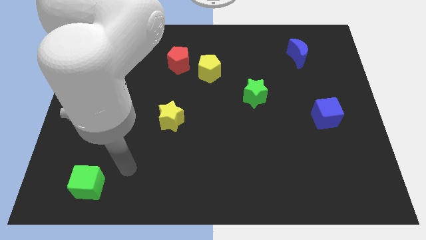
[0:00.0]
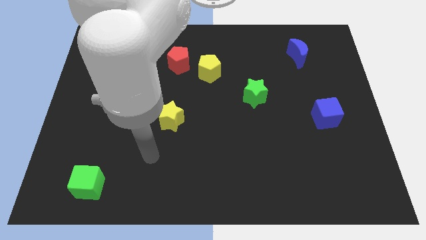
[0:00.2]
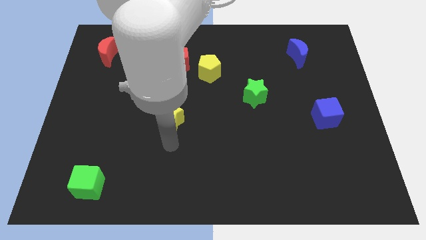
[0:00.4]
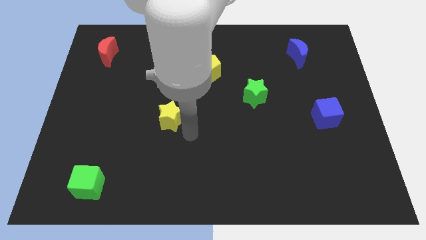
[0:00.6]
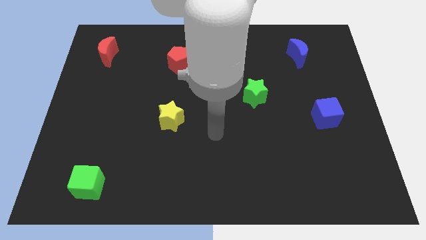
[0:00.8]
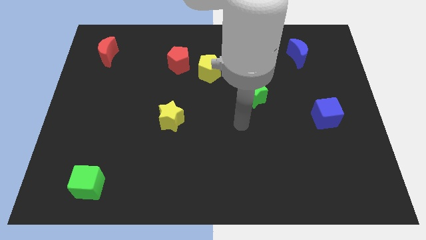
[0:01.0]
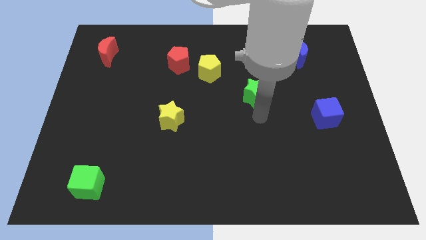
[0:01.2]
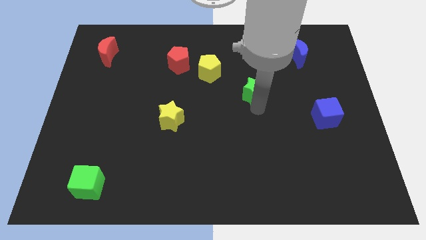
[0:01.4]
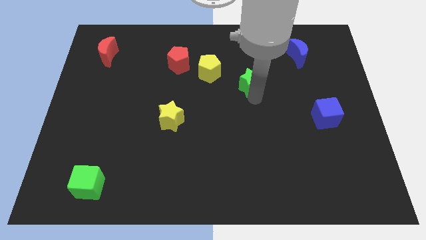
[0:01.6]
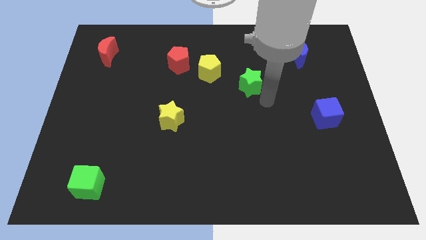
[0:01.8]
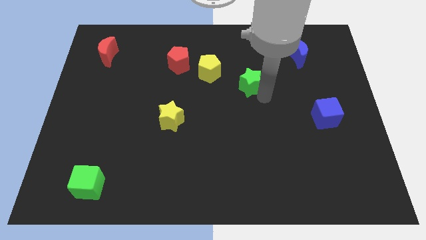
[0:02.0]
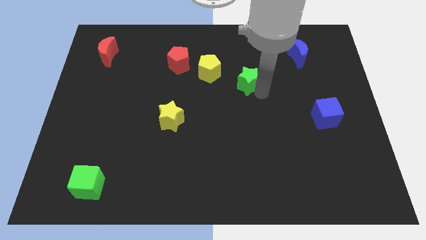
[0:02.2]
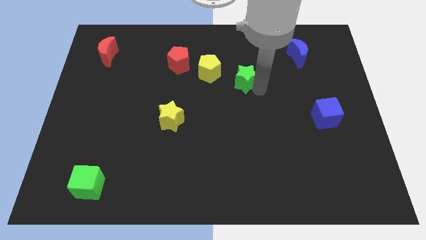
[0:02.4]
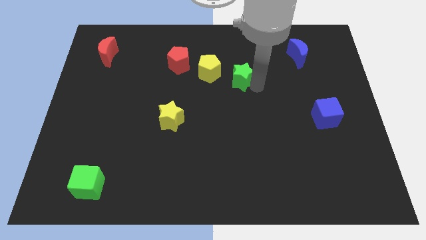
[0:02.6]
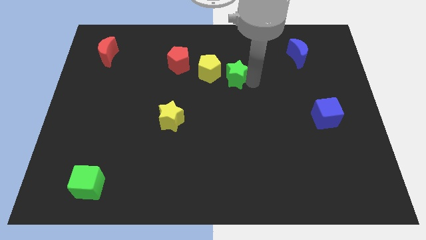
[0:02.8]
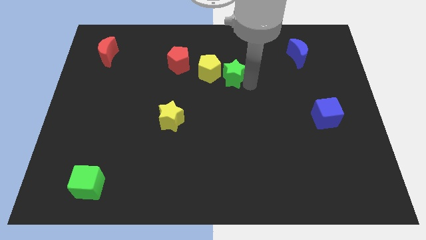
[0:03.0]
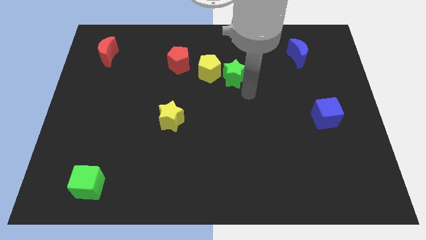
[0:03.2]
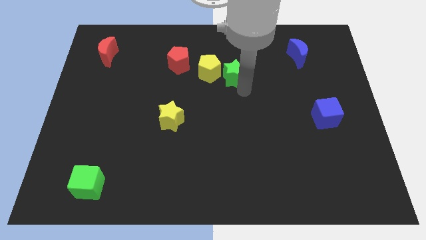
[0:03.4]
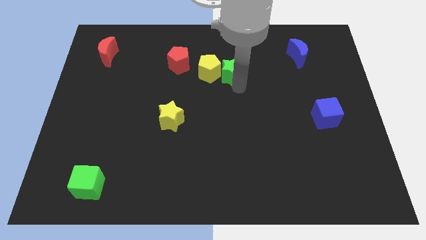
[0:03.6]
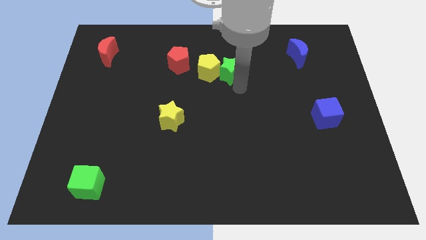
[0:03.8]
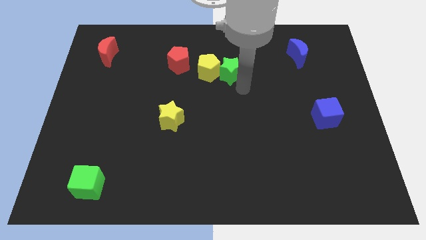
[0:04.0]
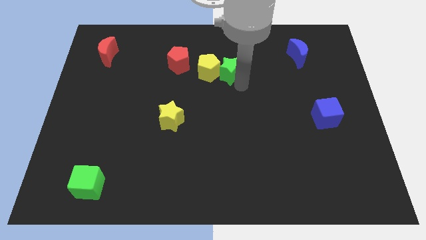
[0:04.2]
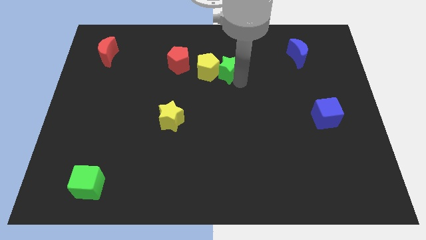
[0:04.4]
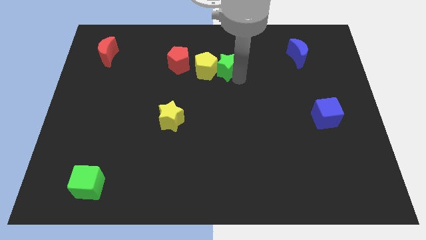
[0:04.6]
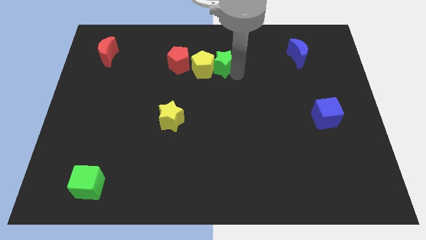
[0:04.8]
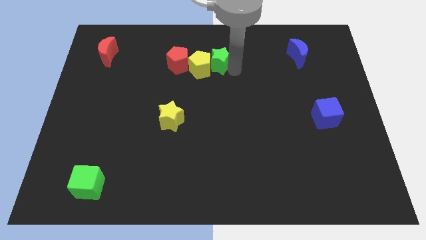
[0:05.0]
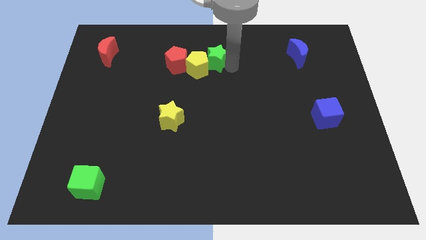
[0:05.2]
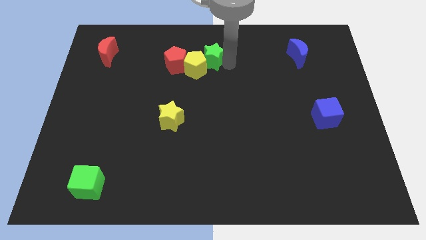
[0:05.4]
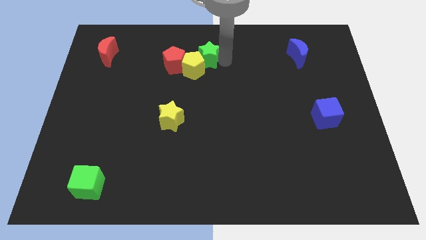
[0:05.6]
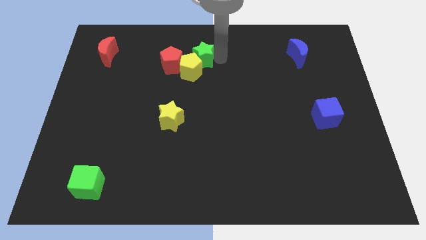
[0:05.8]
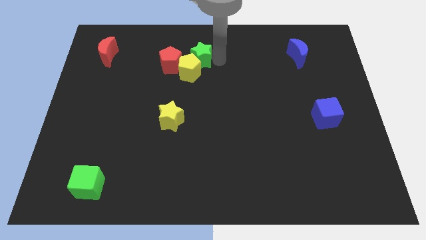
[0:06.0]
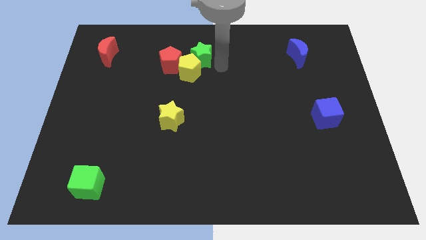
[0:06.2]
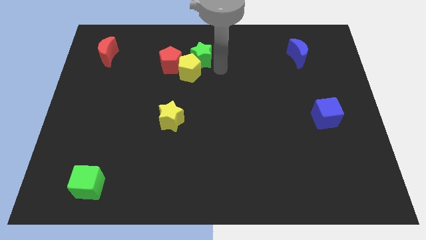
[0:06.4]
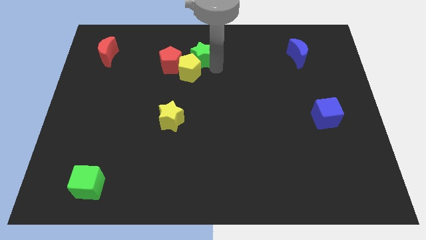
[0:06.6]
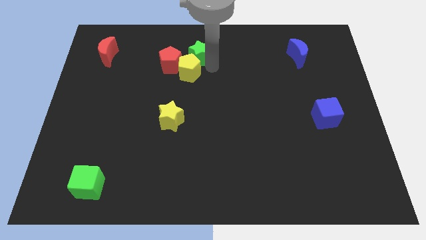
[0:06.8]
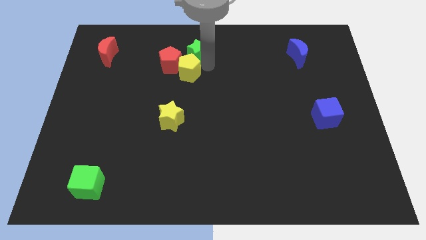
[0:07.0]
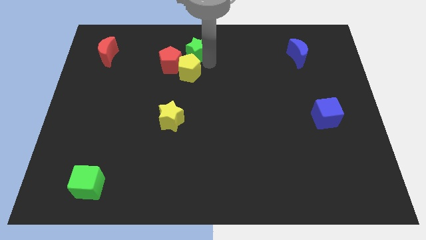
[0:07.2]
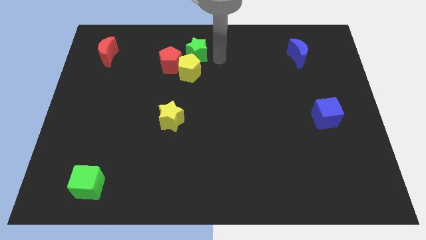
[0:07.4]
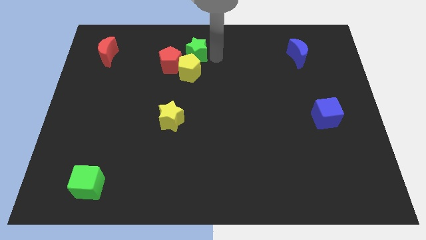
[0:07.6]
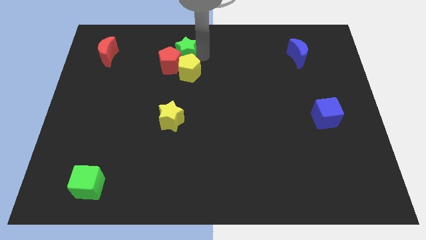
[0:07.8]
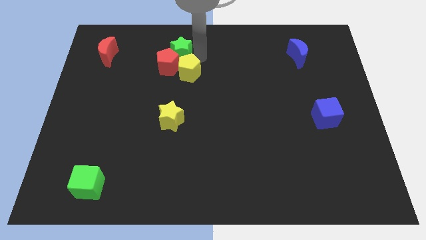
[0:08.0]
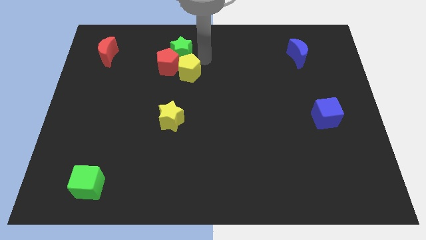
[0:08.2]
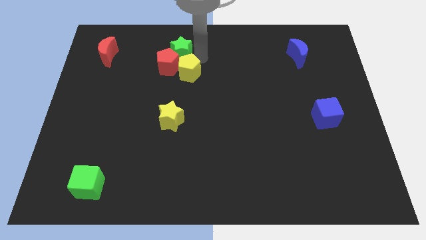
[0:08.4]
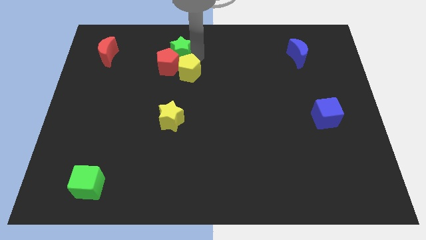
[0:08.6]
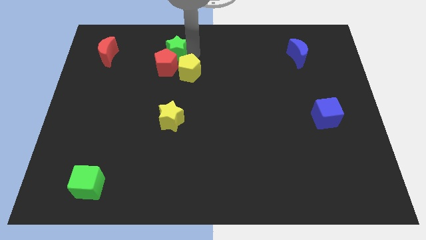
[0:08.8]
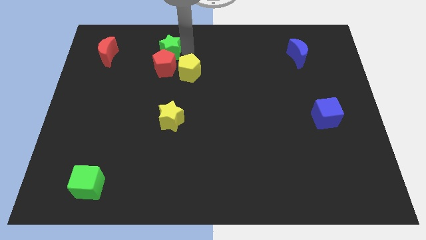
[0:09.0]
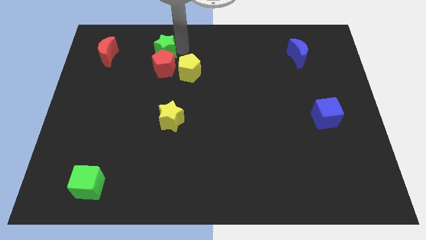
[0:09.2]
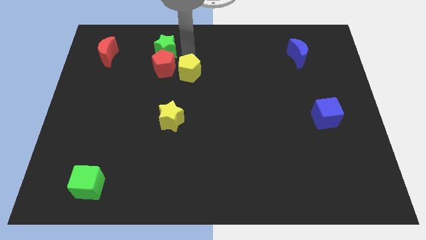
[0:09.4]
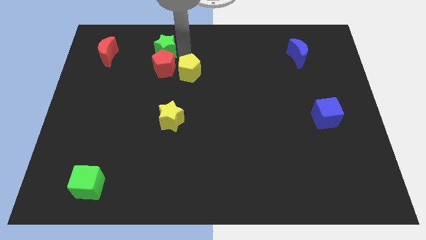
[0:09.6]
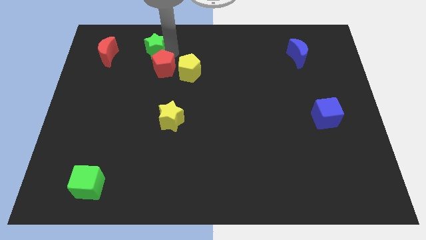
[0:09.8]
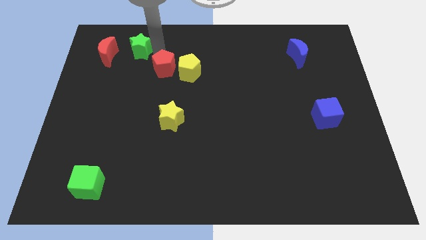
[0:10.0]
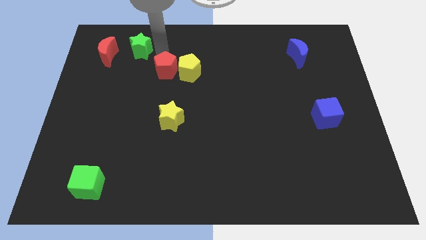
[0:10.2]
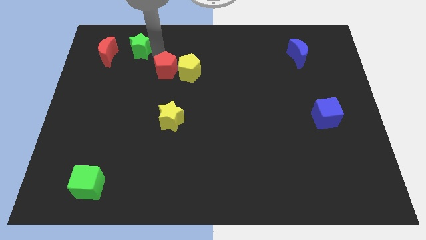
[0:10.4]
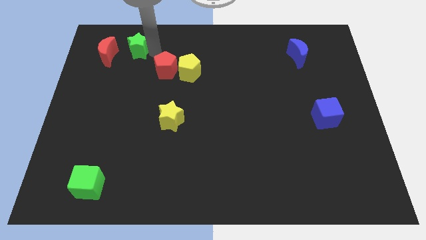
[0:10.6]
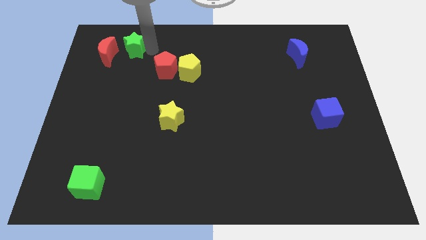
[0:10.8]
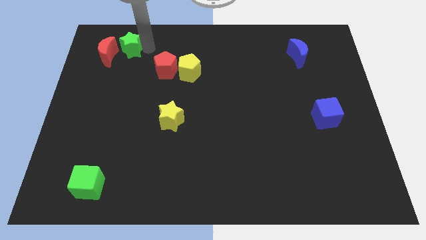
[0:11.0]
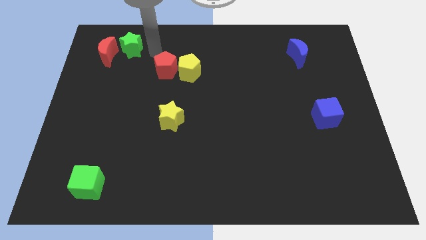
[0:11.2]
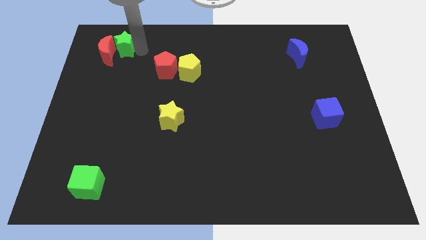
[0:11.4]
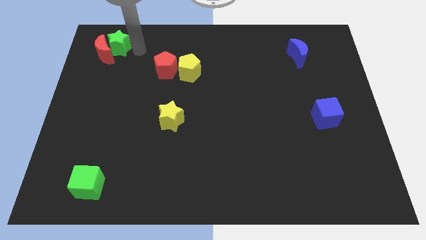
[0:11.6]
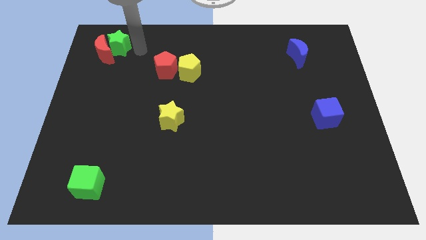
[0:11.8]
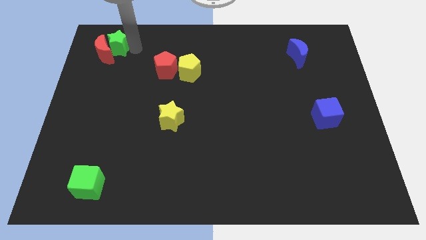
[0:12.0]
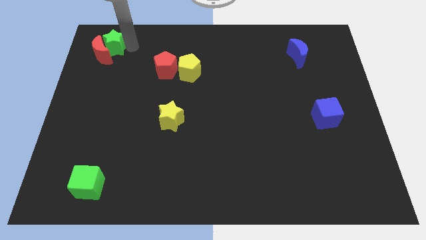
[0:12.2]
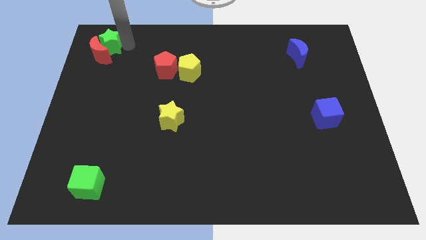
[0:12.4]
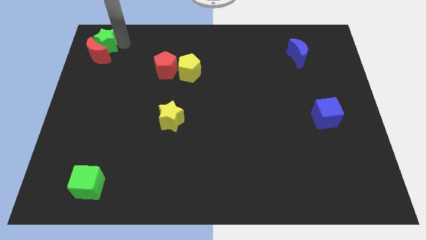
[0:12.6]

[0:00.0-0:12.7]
move the green star to the top left of the board

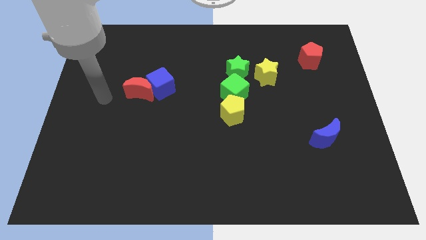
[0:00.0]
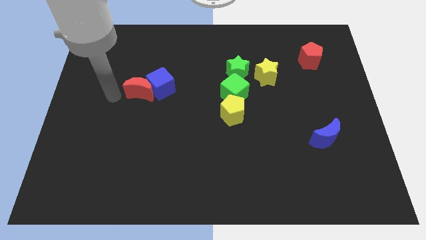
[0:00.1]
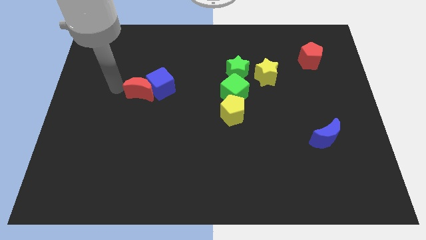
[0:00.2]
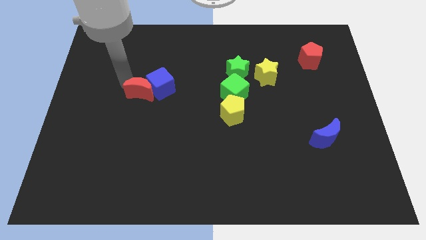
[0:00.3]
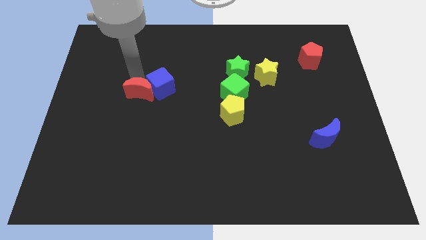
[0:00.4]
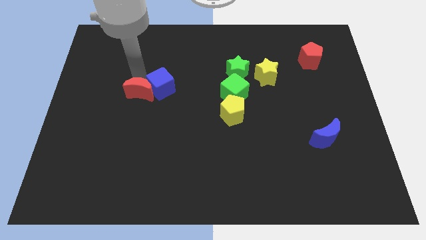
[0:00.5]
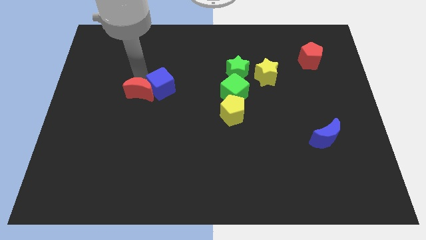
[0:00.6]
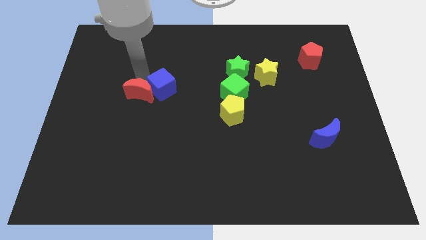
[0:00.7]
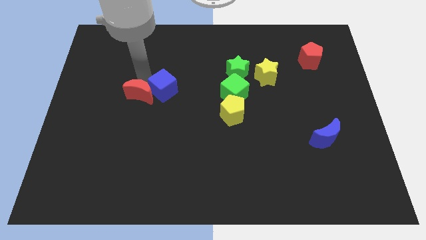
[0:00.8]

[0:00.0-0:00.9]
move the blue cube to the middle of the board
